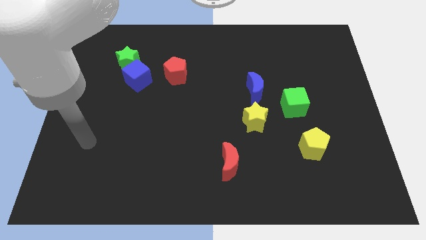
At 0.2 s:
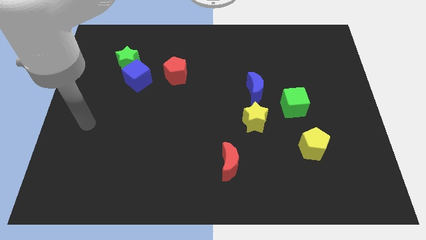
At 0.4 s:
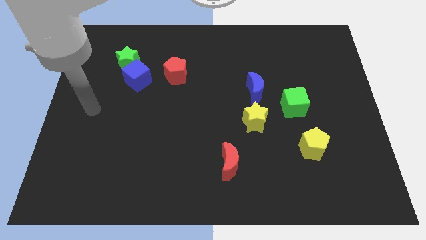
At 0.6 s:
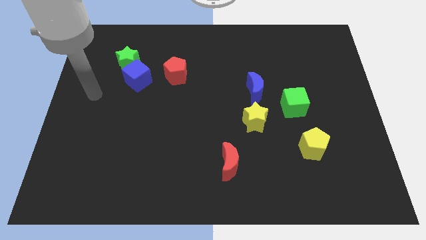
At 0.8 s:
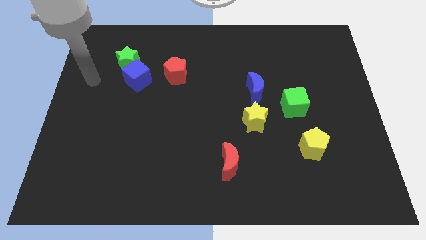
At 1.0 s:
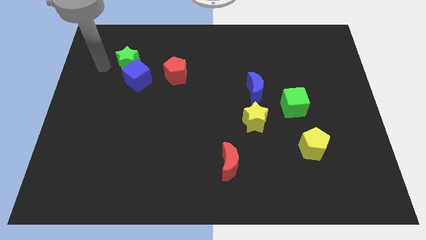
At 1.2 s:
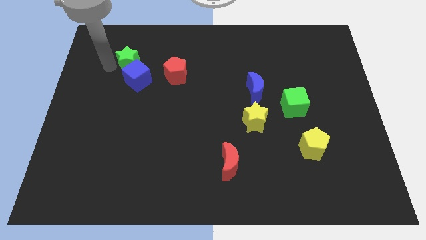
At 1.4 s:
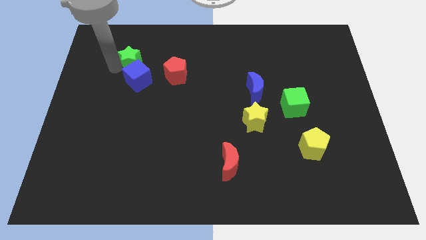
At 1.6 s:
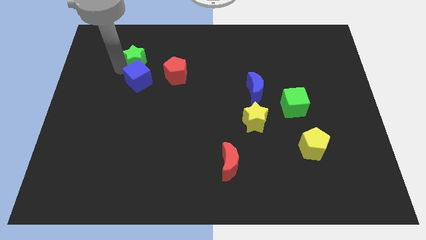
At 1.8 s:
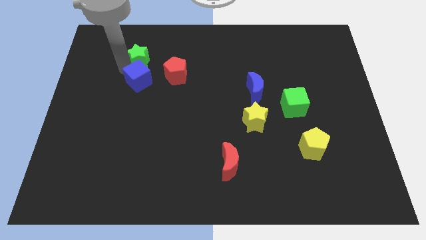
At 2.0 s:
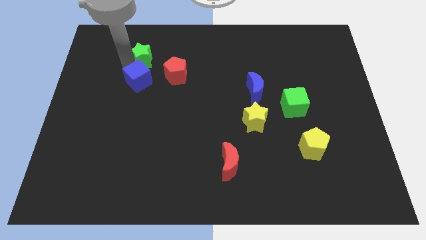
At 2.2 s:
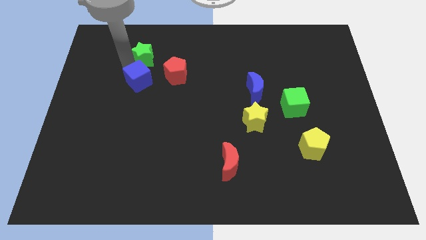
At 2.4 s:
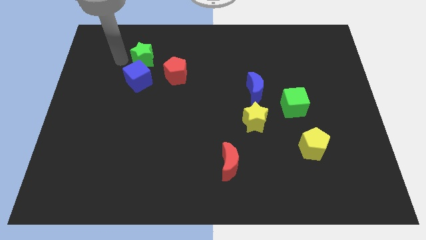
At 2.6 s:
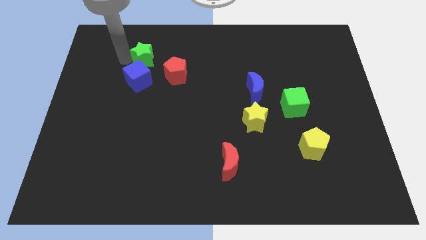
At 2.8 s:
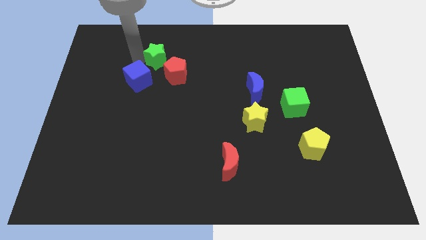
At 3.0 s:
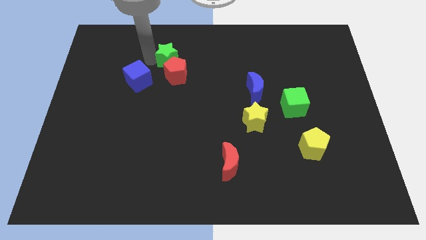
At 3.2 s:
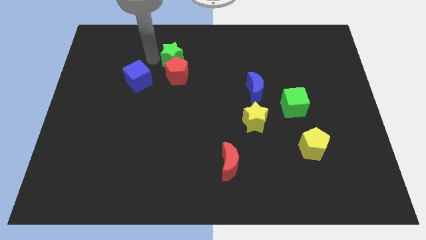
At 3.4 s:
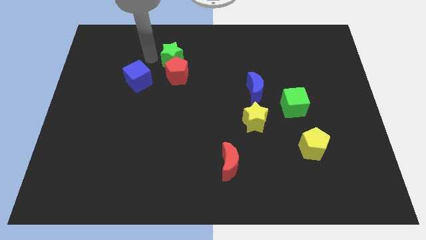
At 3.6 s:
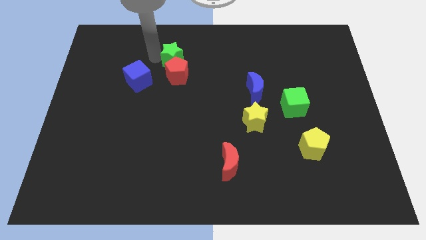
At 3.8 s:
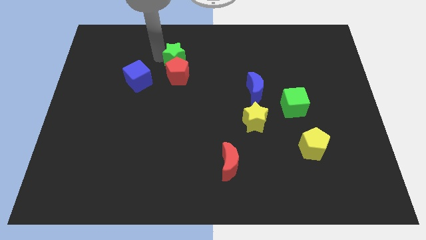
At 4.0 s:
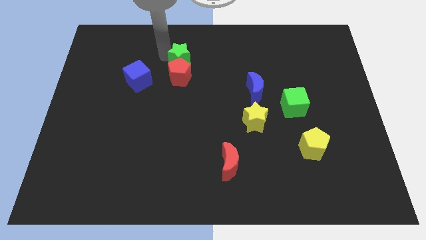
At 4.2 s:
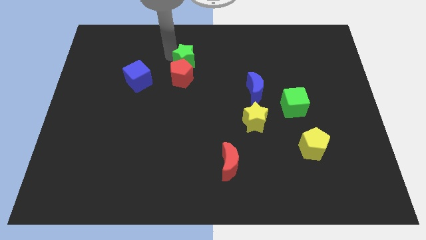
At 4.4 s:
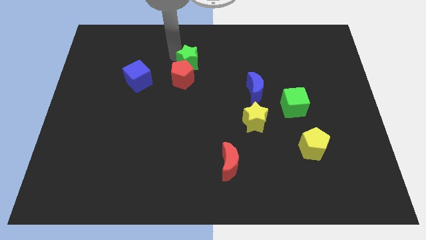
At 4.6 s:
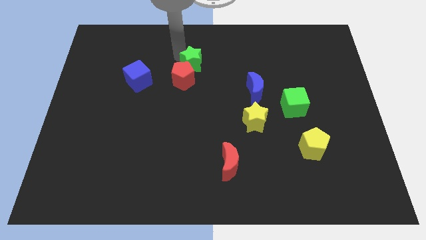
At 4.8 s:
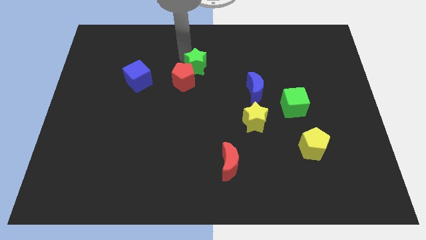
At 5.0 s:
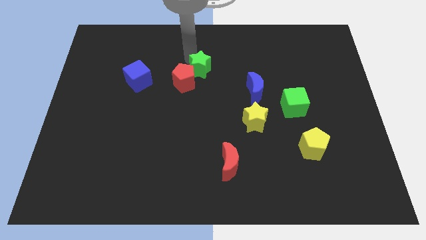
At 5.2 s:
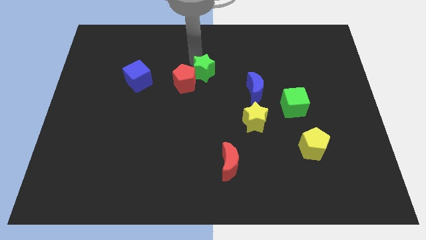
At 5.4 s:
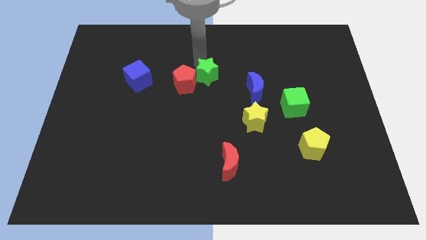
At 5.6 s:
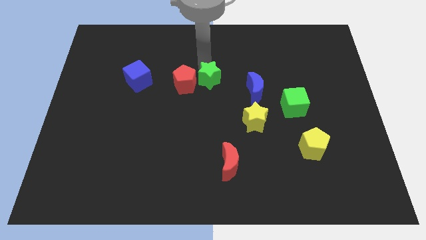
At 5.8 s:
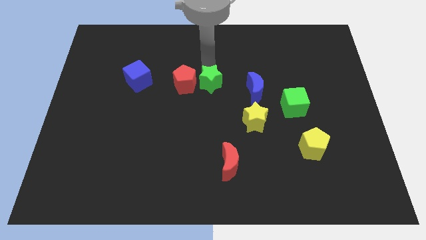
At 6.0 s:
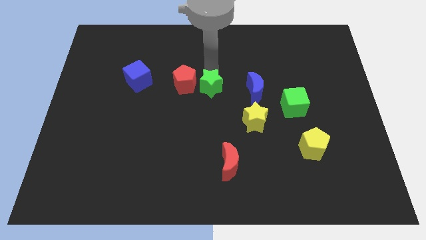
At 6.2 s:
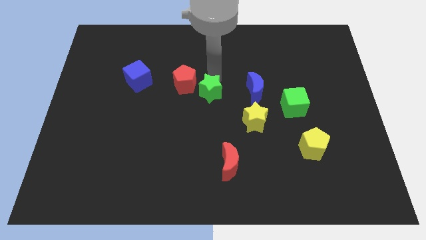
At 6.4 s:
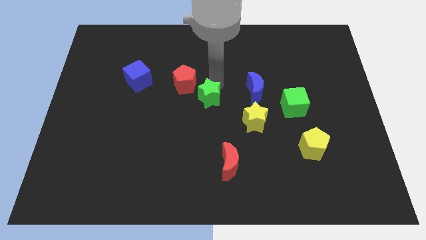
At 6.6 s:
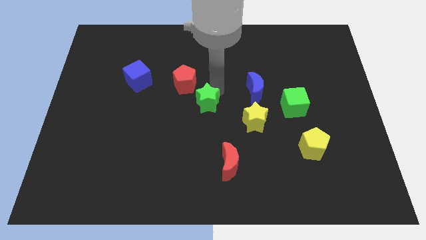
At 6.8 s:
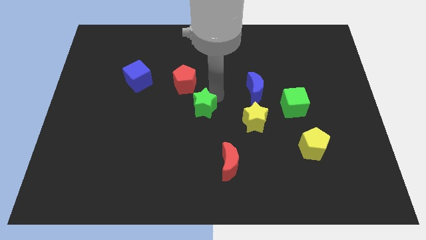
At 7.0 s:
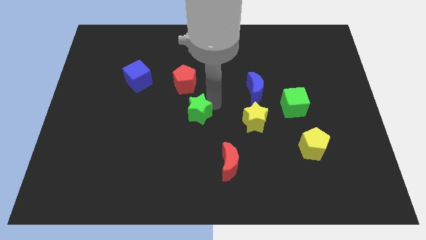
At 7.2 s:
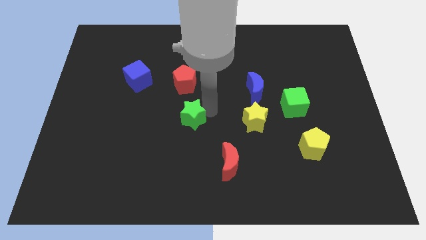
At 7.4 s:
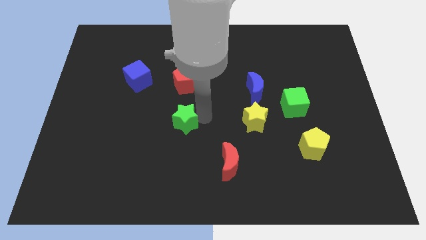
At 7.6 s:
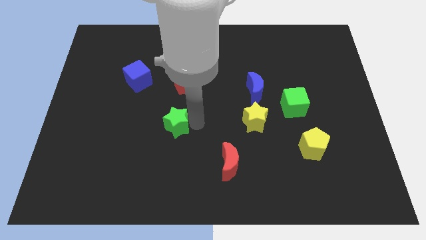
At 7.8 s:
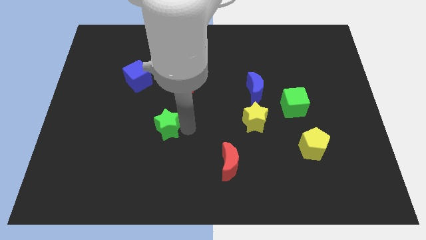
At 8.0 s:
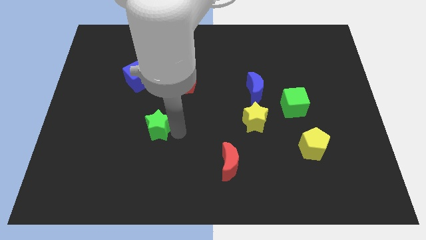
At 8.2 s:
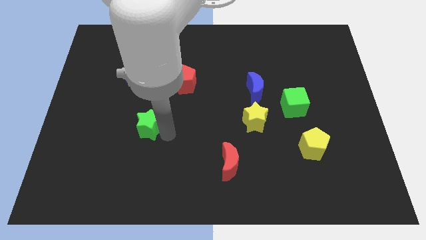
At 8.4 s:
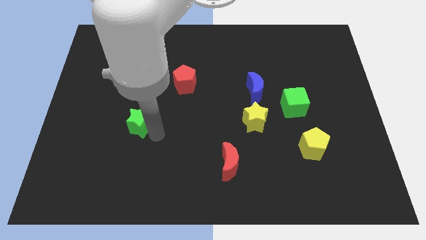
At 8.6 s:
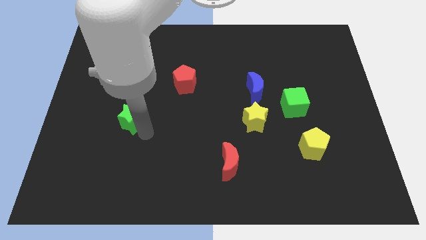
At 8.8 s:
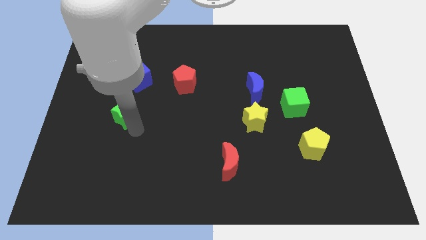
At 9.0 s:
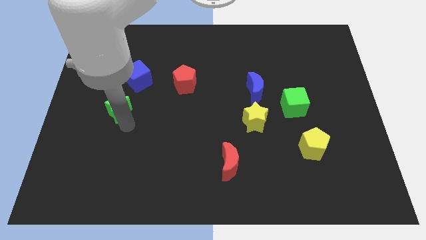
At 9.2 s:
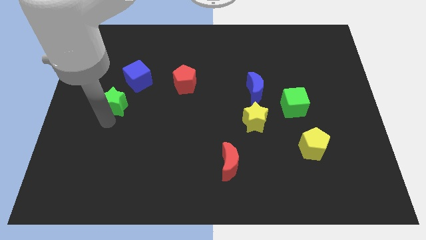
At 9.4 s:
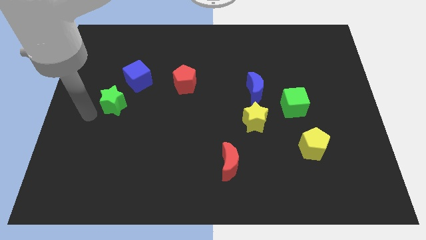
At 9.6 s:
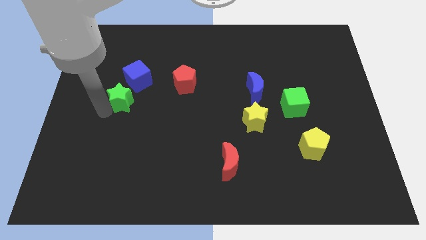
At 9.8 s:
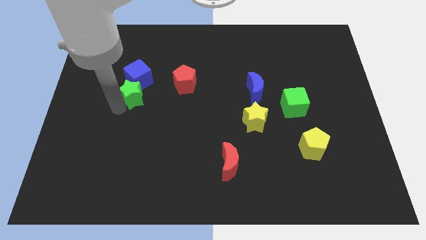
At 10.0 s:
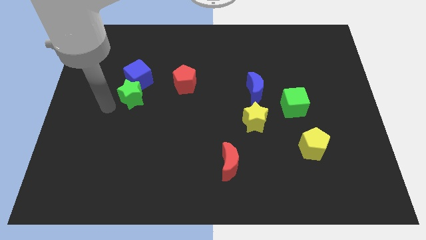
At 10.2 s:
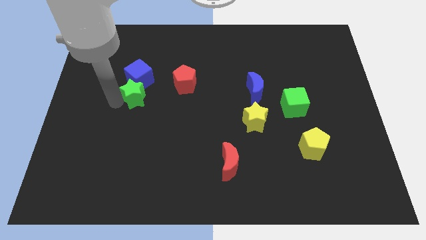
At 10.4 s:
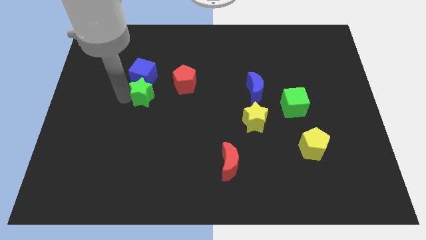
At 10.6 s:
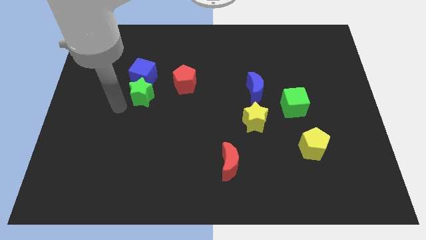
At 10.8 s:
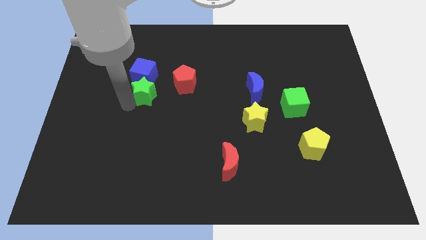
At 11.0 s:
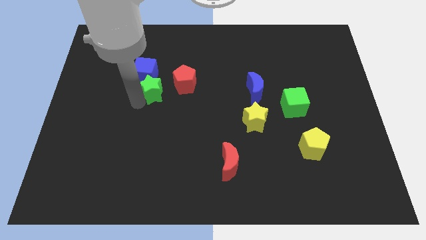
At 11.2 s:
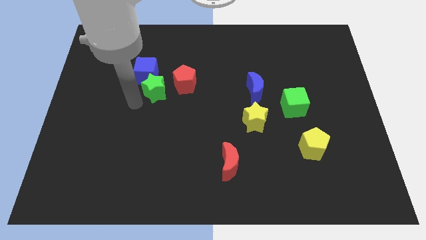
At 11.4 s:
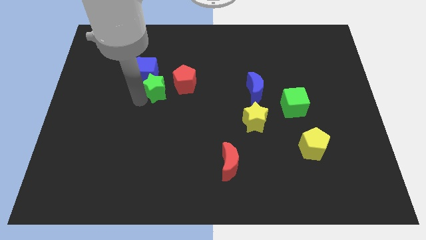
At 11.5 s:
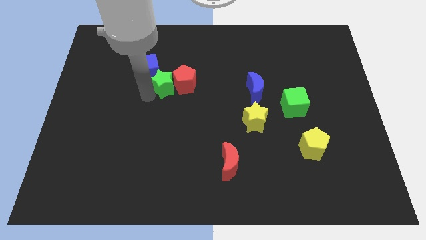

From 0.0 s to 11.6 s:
push the green star to the right side of the blue cube

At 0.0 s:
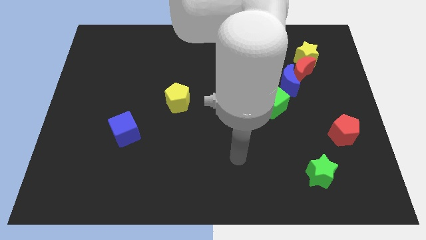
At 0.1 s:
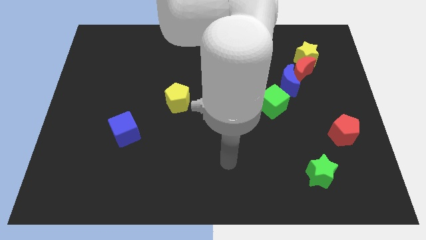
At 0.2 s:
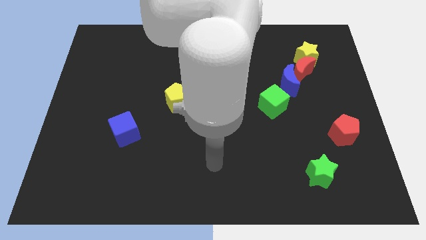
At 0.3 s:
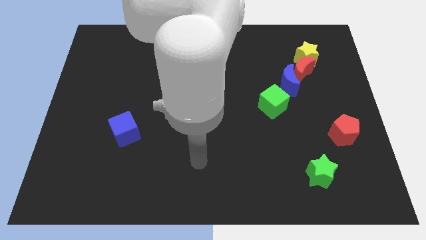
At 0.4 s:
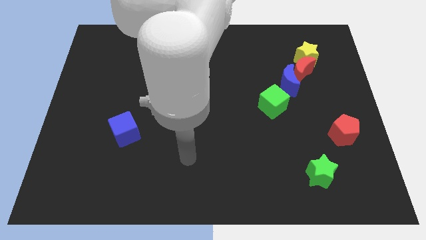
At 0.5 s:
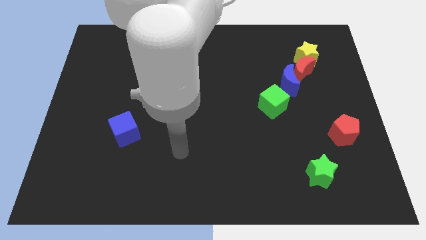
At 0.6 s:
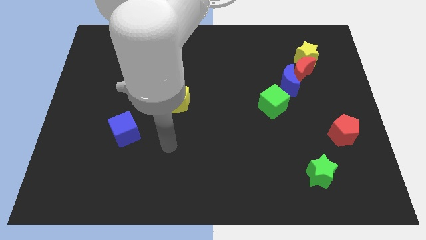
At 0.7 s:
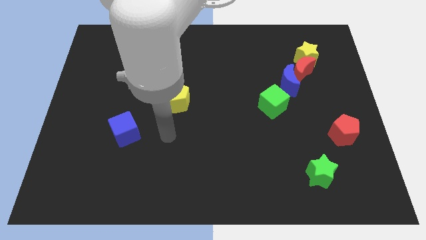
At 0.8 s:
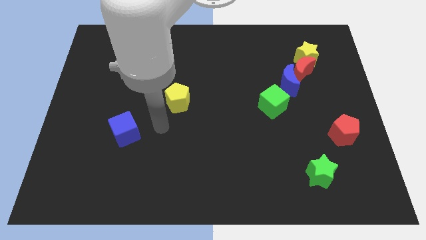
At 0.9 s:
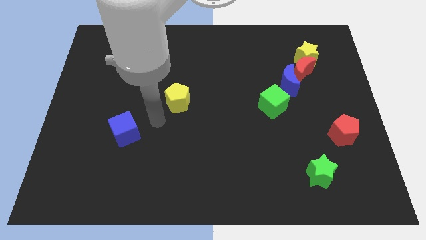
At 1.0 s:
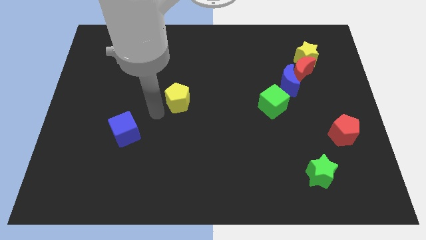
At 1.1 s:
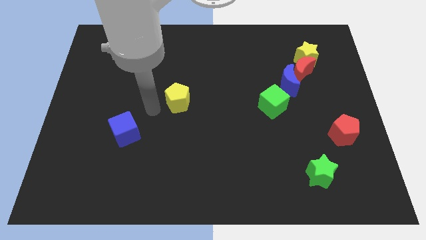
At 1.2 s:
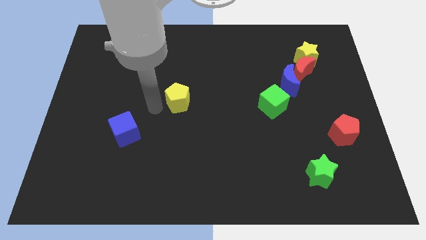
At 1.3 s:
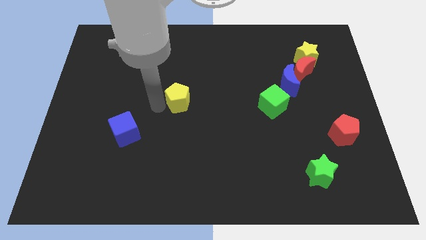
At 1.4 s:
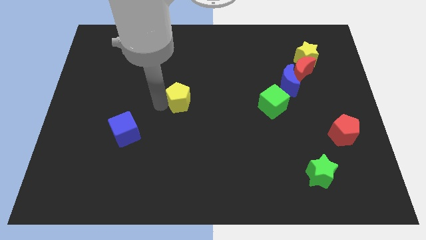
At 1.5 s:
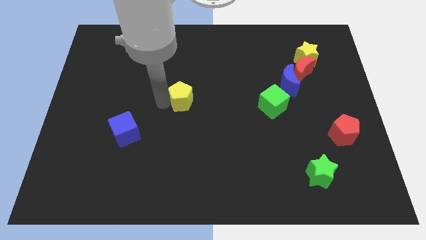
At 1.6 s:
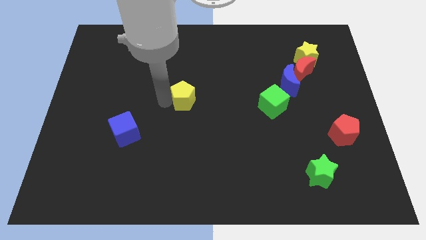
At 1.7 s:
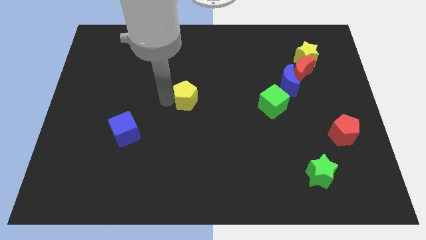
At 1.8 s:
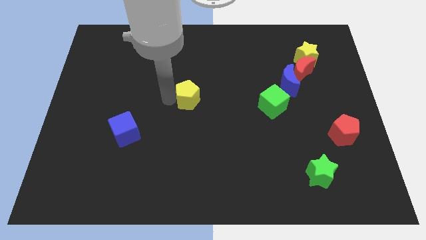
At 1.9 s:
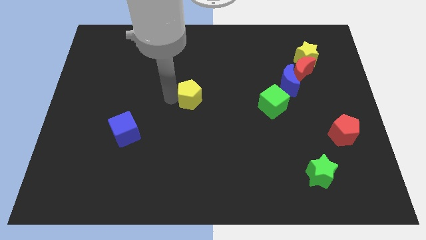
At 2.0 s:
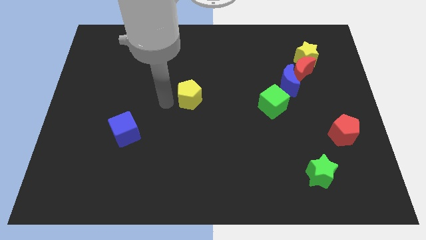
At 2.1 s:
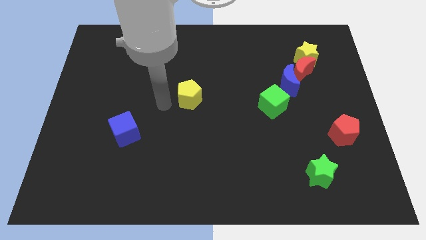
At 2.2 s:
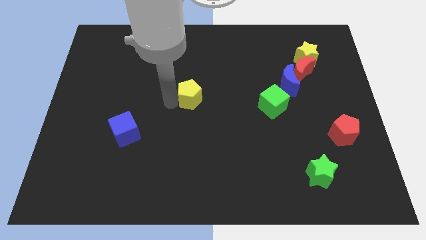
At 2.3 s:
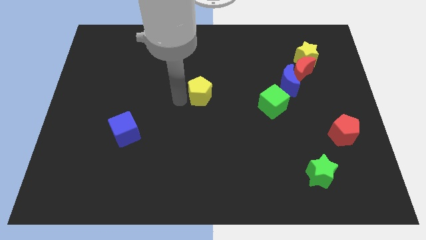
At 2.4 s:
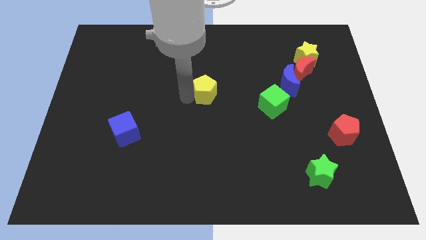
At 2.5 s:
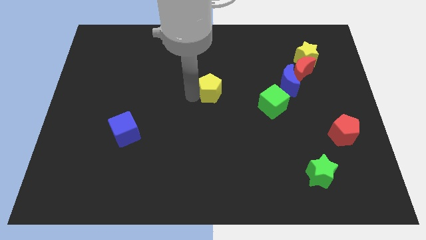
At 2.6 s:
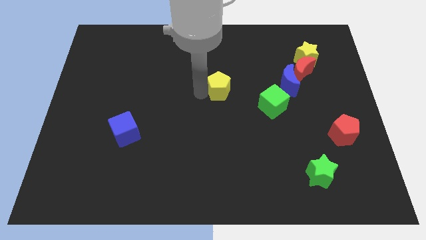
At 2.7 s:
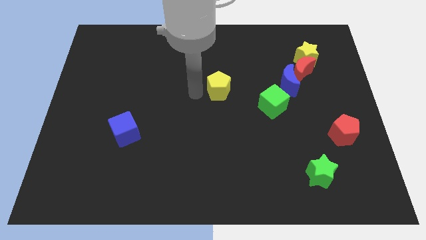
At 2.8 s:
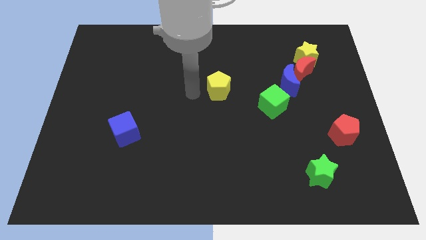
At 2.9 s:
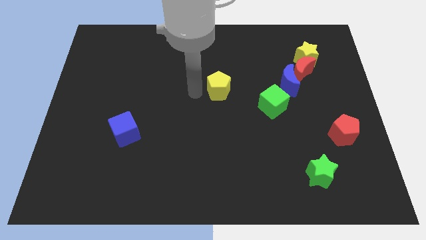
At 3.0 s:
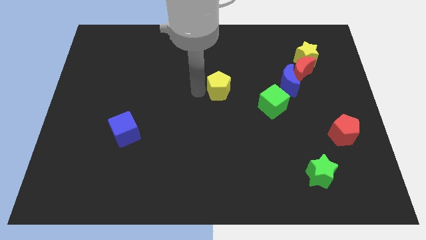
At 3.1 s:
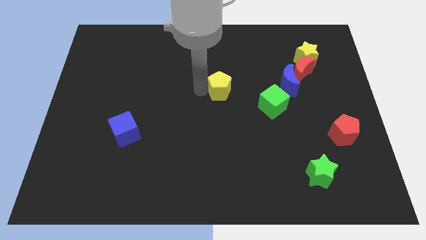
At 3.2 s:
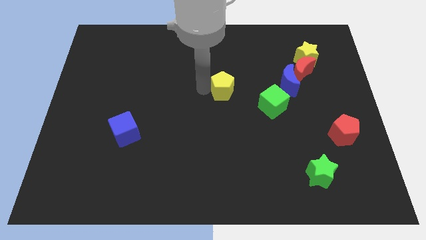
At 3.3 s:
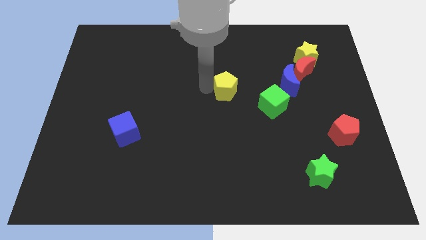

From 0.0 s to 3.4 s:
put the yellow pentagon to the left side of the blue moon
